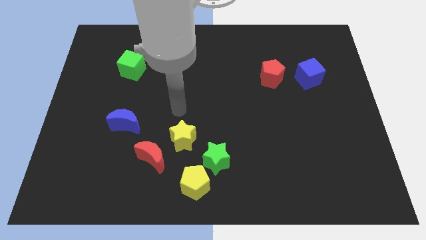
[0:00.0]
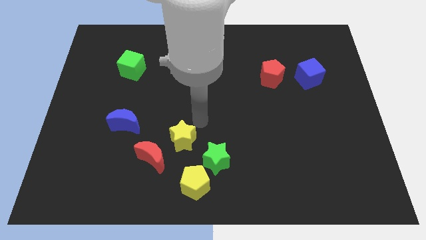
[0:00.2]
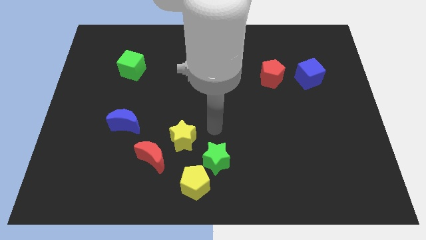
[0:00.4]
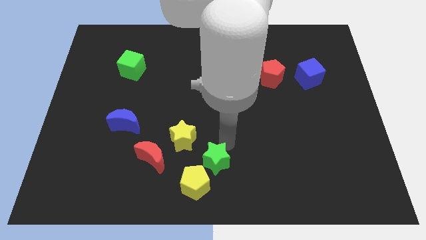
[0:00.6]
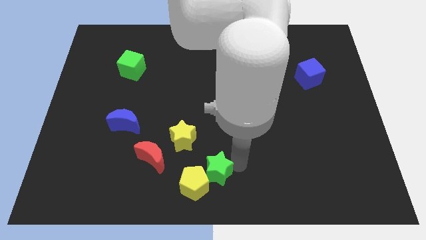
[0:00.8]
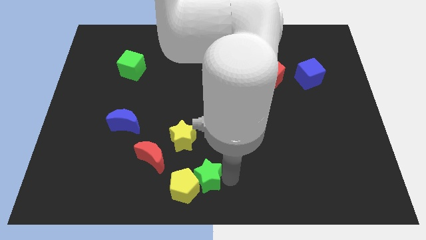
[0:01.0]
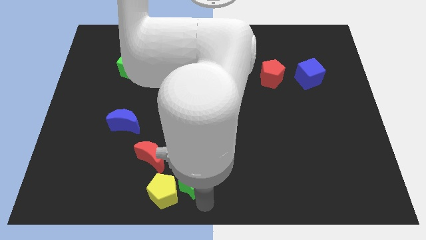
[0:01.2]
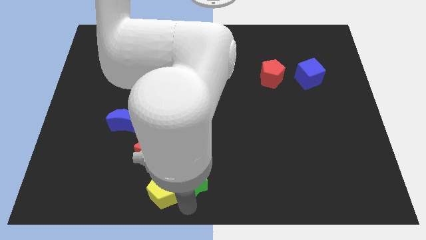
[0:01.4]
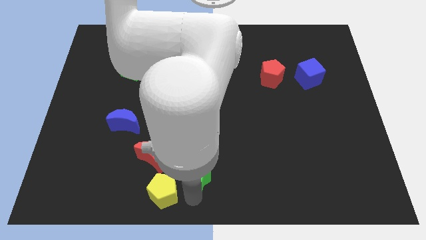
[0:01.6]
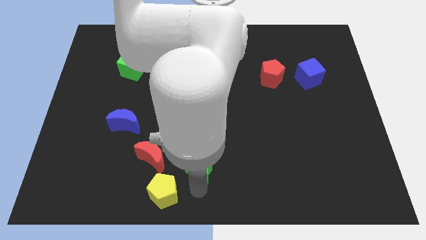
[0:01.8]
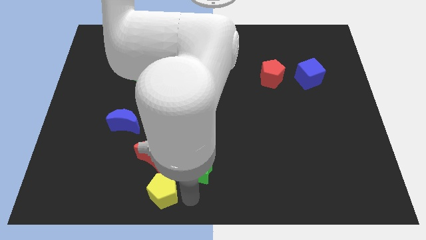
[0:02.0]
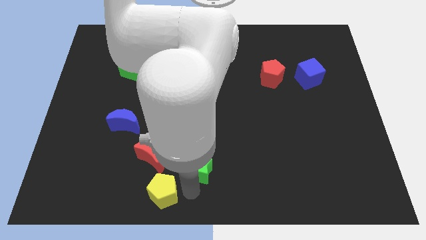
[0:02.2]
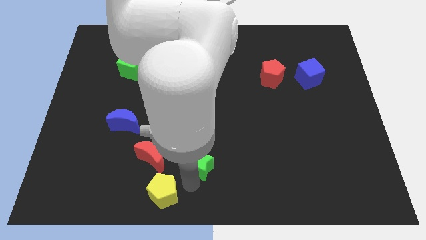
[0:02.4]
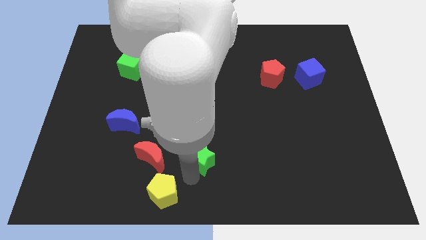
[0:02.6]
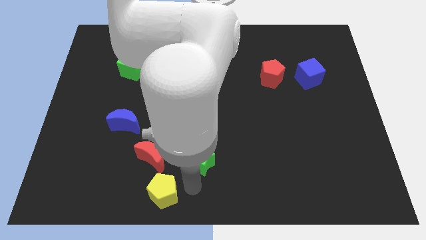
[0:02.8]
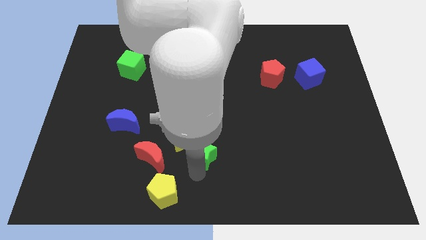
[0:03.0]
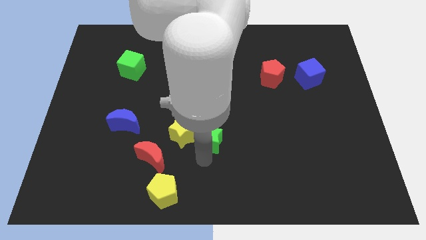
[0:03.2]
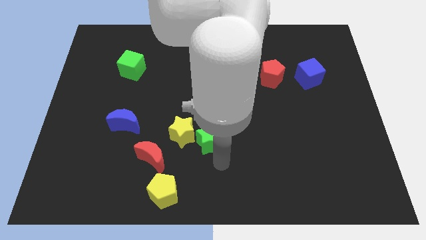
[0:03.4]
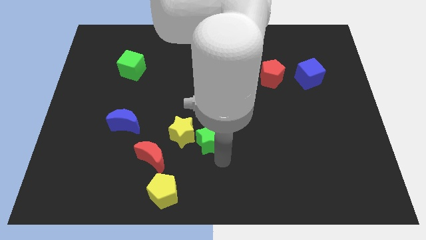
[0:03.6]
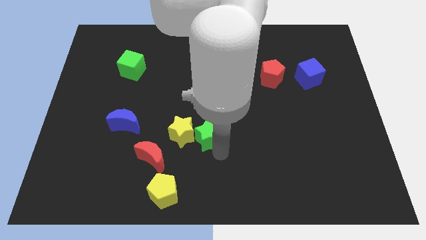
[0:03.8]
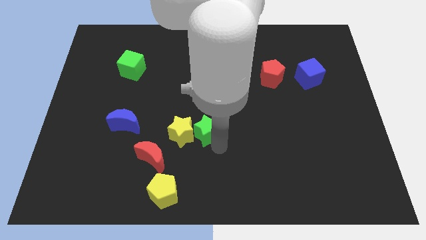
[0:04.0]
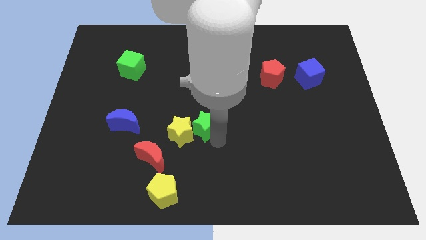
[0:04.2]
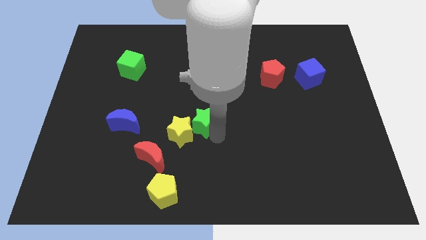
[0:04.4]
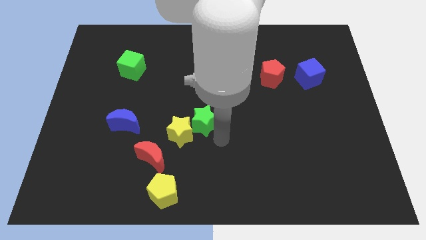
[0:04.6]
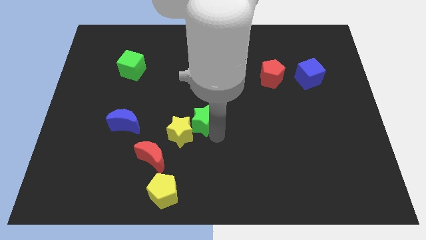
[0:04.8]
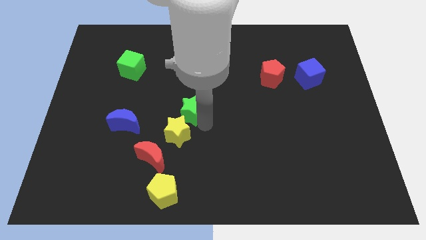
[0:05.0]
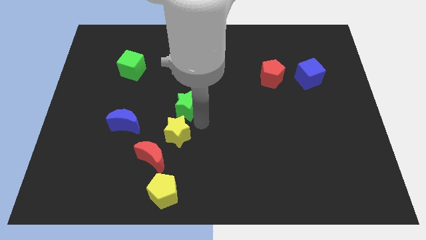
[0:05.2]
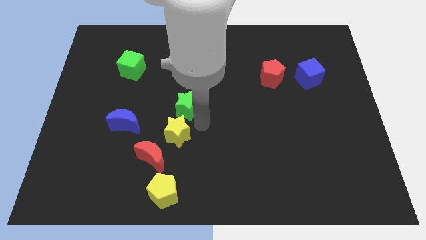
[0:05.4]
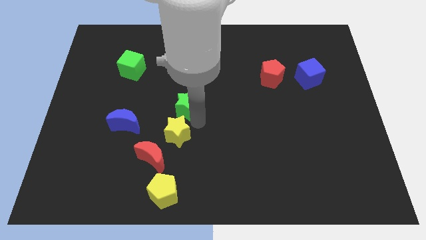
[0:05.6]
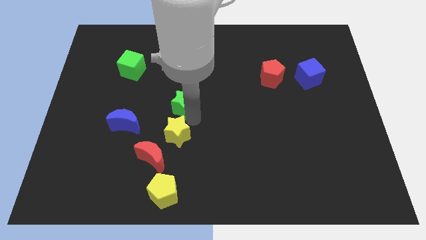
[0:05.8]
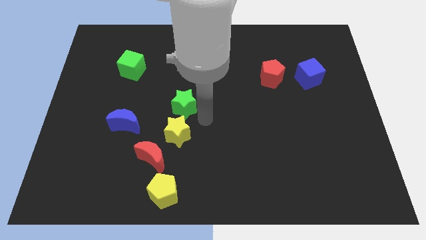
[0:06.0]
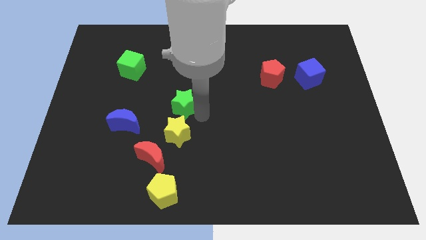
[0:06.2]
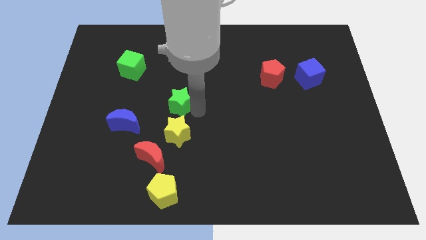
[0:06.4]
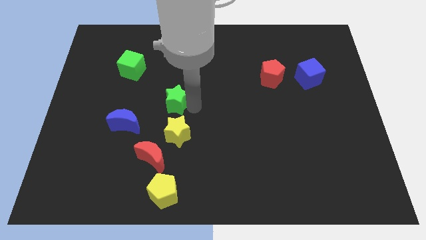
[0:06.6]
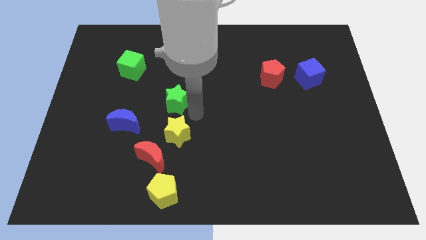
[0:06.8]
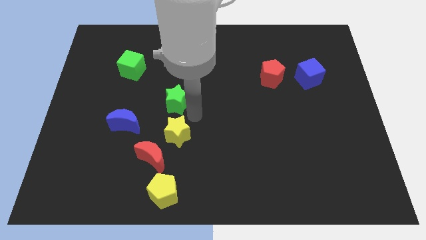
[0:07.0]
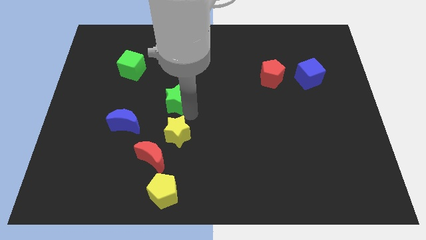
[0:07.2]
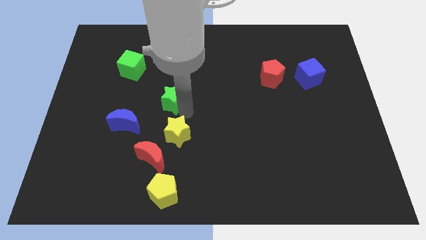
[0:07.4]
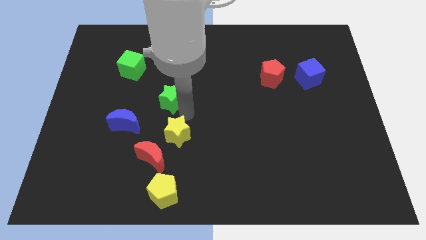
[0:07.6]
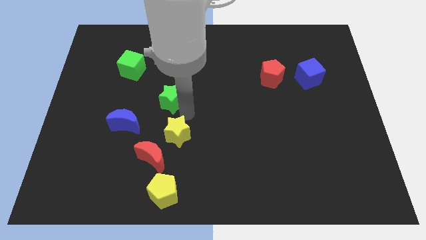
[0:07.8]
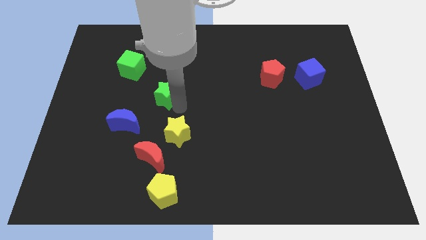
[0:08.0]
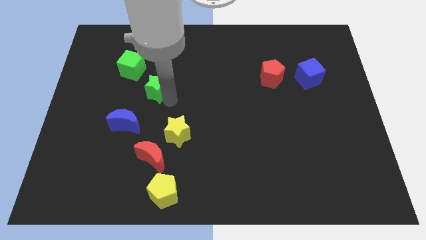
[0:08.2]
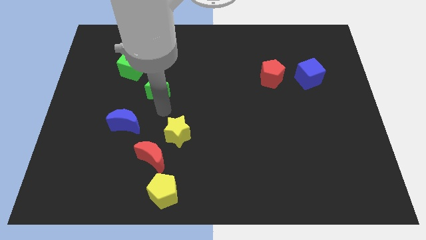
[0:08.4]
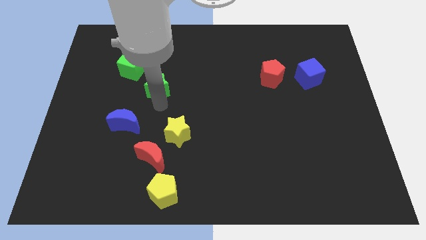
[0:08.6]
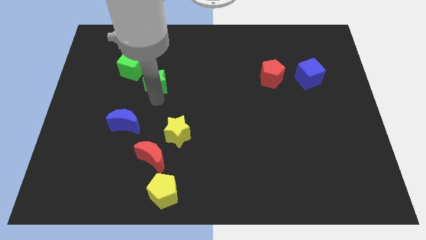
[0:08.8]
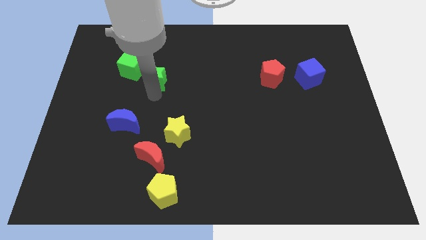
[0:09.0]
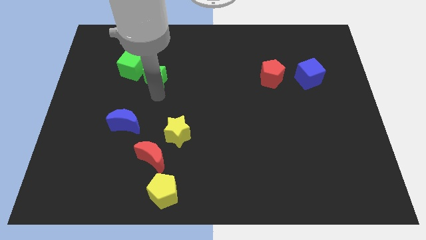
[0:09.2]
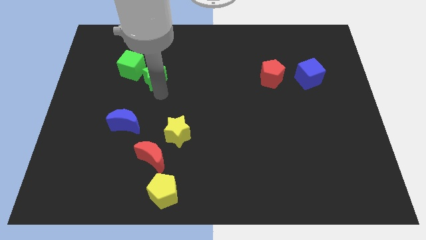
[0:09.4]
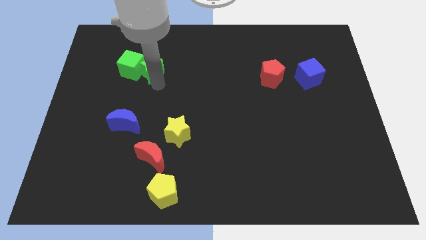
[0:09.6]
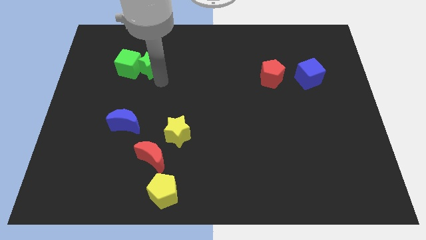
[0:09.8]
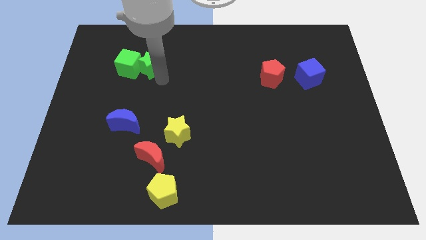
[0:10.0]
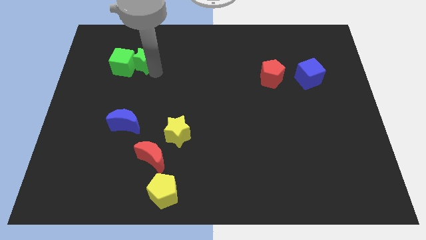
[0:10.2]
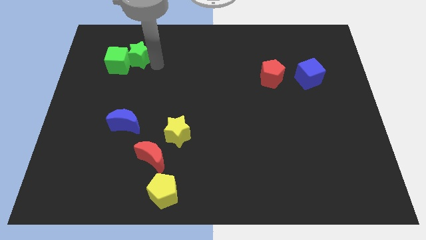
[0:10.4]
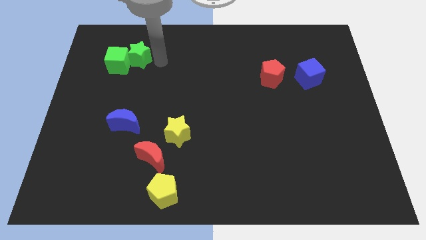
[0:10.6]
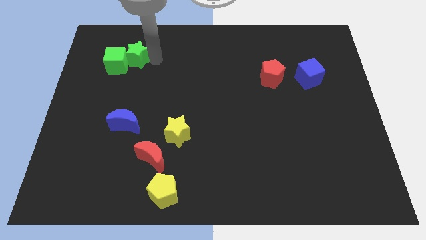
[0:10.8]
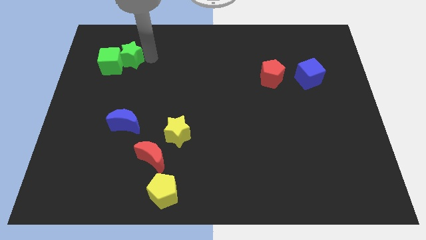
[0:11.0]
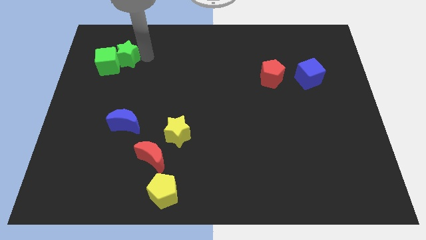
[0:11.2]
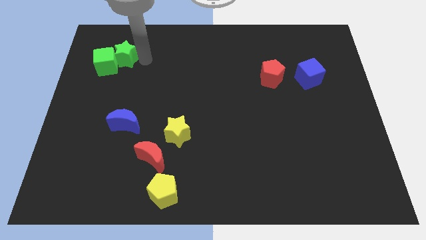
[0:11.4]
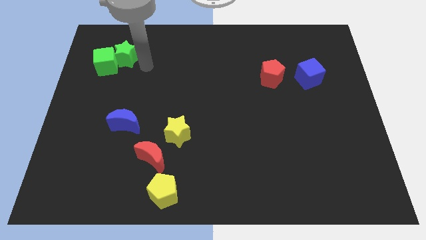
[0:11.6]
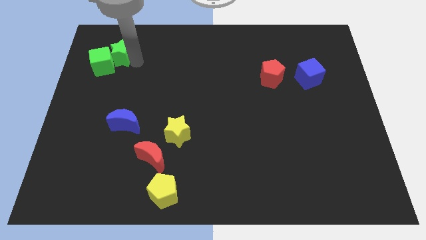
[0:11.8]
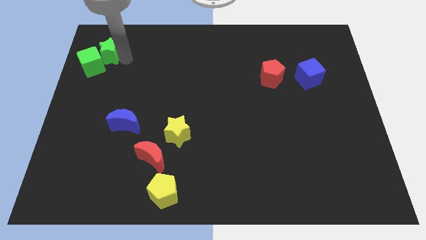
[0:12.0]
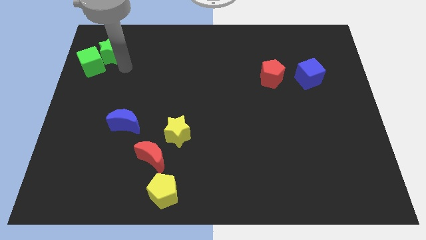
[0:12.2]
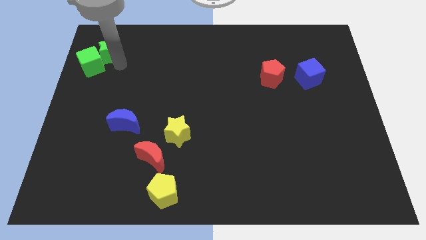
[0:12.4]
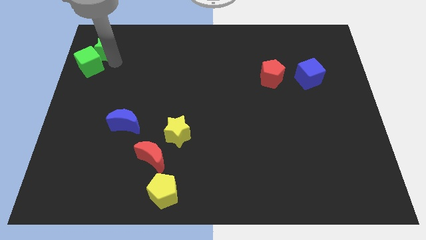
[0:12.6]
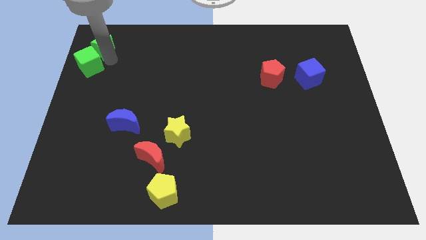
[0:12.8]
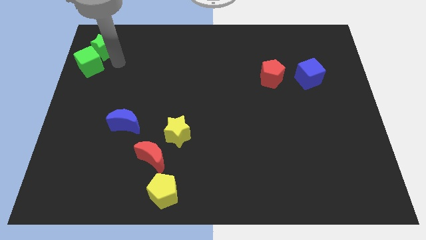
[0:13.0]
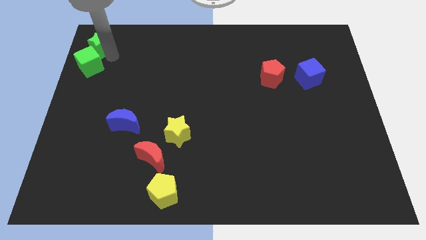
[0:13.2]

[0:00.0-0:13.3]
put the green star to the top left corner
